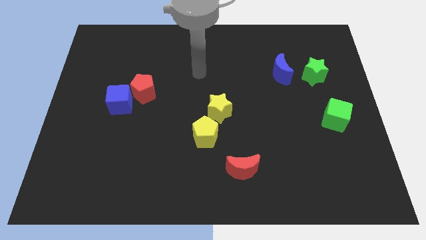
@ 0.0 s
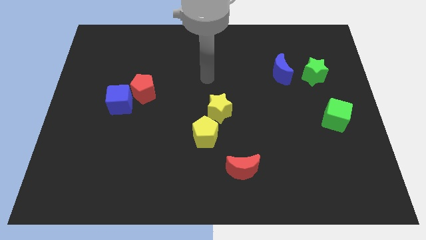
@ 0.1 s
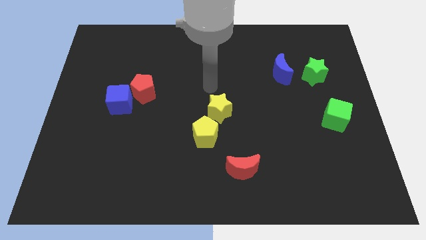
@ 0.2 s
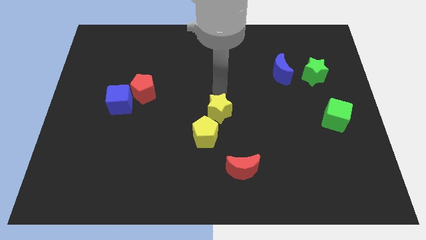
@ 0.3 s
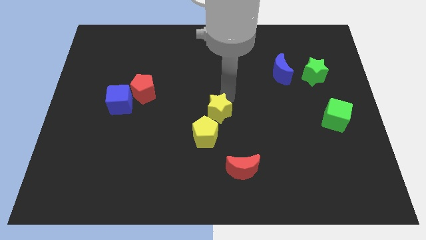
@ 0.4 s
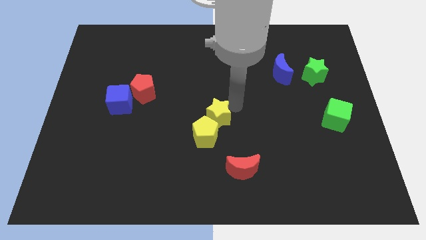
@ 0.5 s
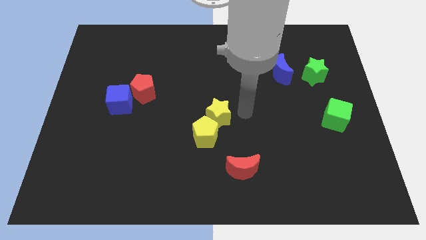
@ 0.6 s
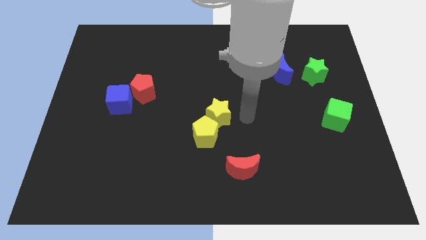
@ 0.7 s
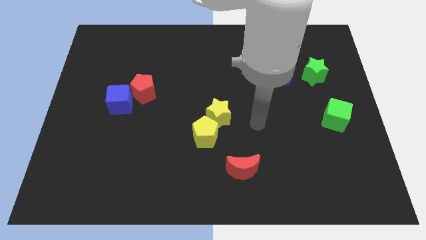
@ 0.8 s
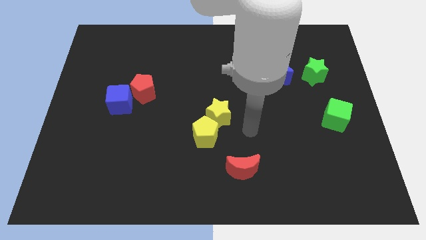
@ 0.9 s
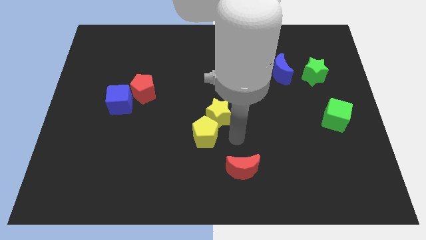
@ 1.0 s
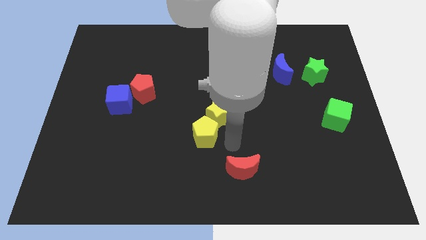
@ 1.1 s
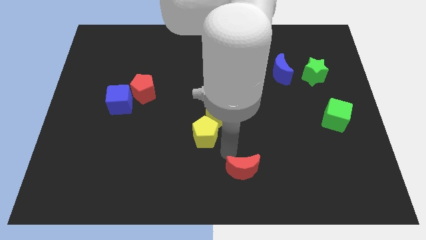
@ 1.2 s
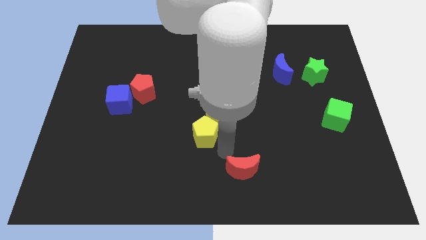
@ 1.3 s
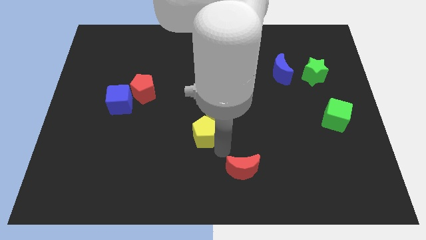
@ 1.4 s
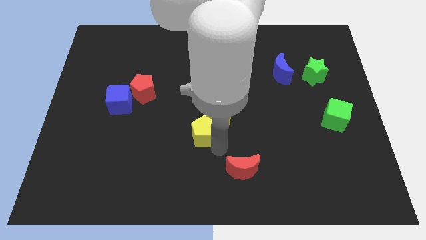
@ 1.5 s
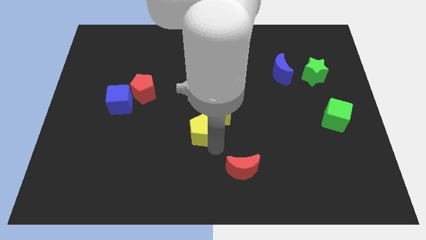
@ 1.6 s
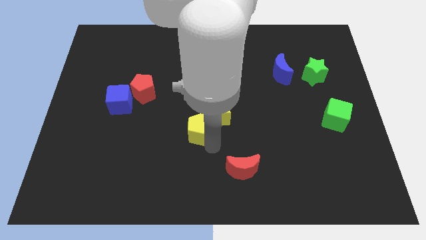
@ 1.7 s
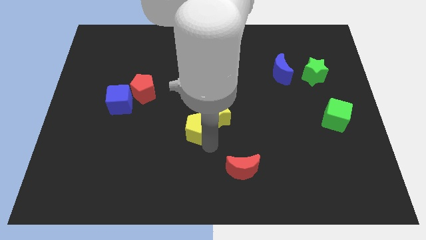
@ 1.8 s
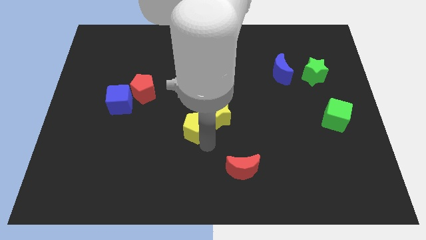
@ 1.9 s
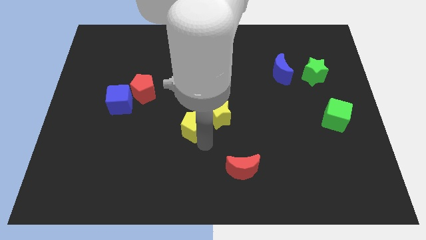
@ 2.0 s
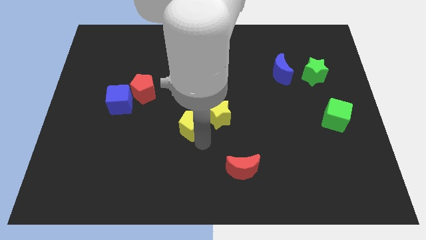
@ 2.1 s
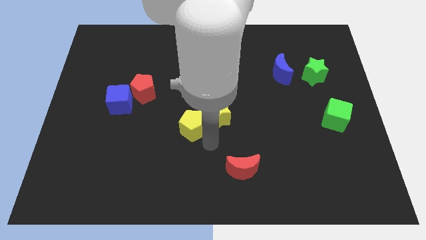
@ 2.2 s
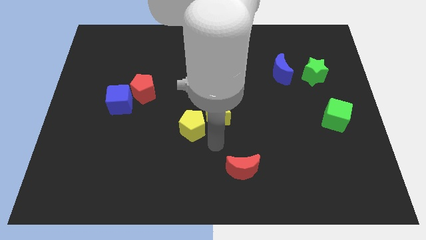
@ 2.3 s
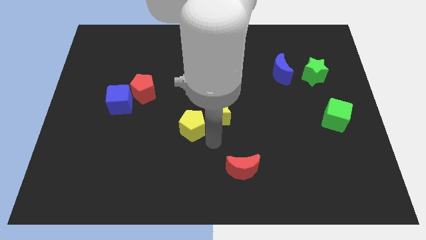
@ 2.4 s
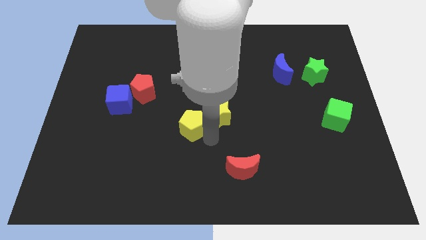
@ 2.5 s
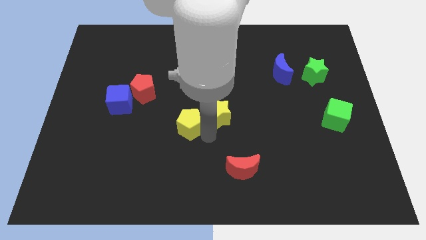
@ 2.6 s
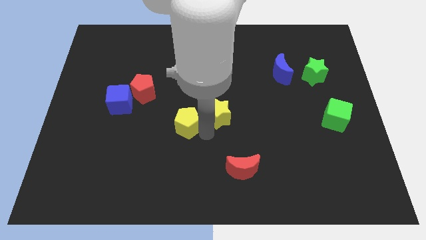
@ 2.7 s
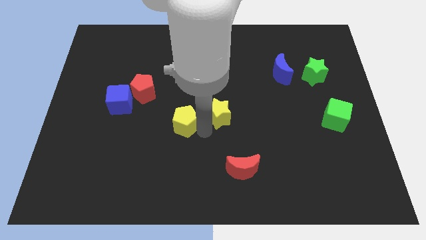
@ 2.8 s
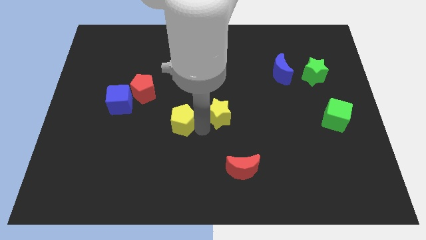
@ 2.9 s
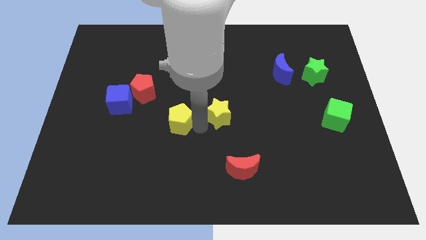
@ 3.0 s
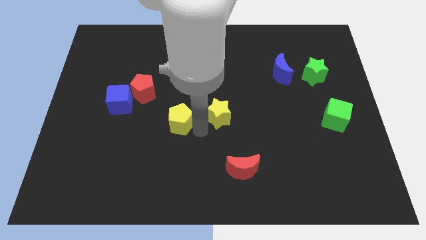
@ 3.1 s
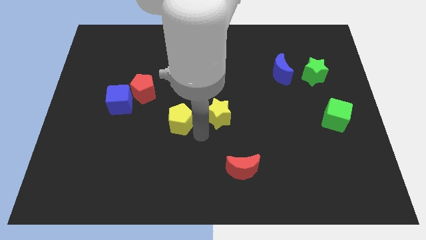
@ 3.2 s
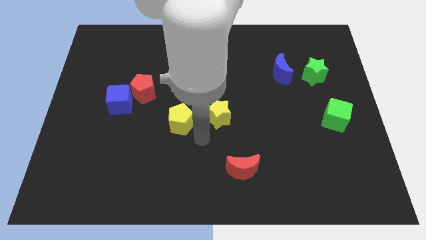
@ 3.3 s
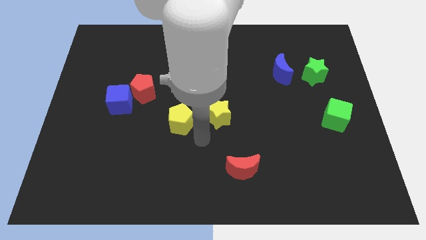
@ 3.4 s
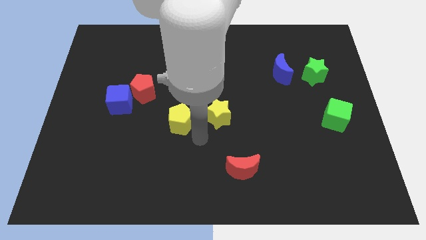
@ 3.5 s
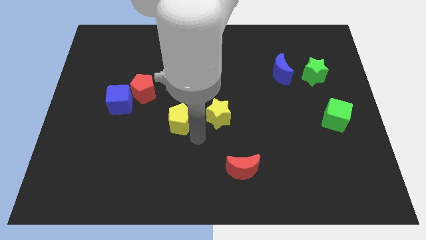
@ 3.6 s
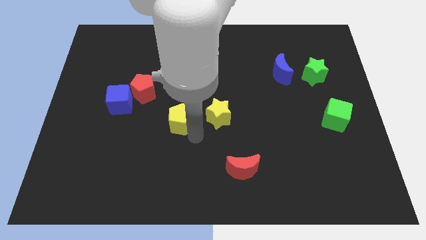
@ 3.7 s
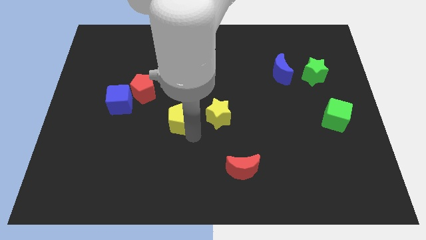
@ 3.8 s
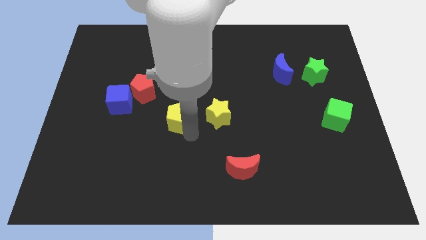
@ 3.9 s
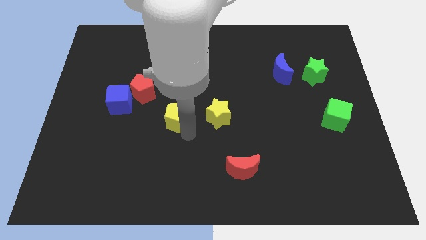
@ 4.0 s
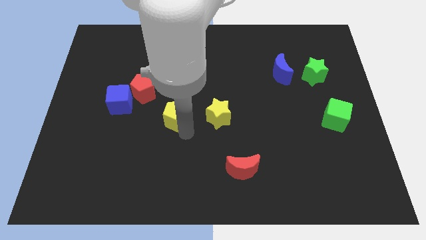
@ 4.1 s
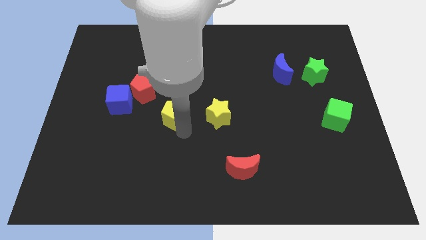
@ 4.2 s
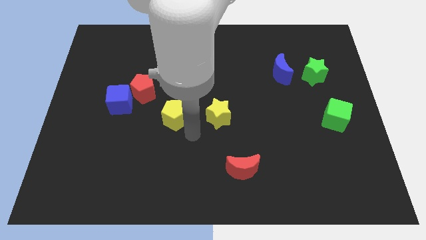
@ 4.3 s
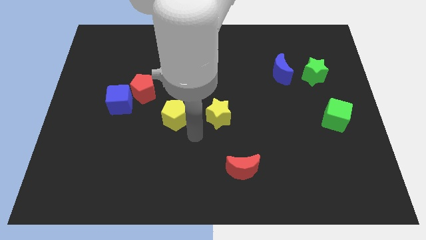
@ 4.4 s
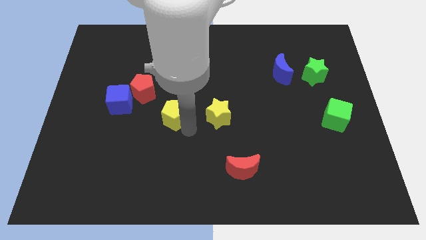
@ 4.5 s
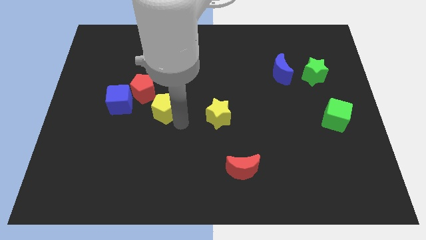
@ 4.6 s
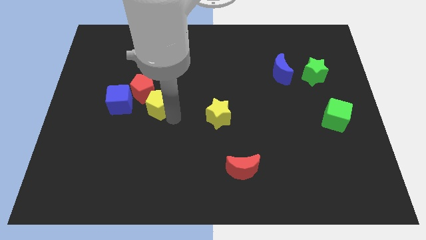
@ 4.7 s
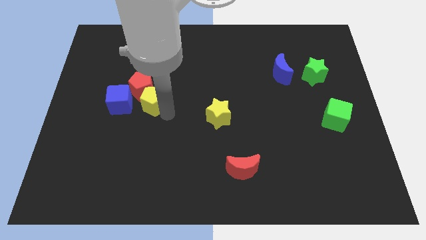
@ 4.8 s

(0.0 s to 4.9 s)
push the yellow pentagon close to the red pentagon

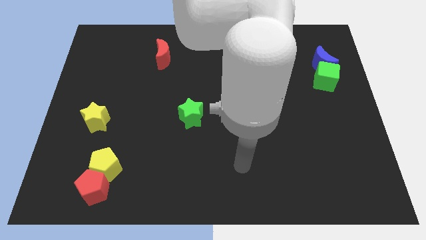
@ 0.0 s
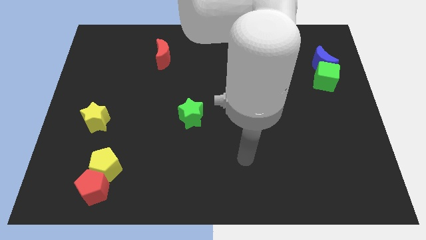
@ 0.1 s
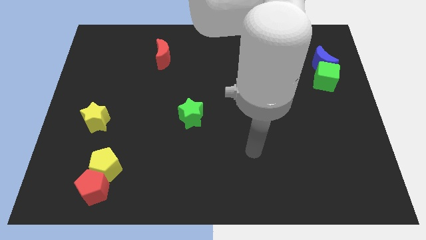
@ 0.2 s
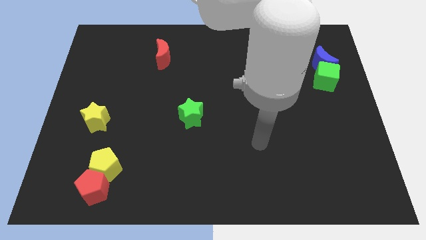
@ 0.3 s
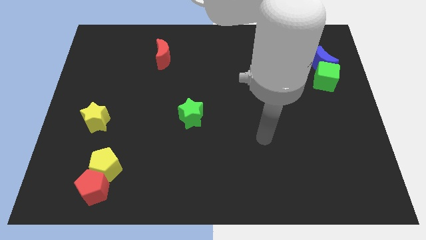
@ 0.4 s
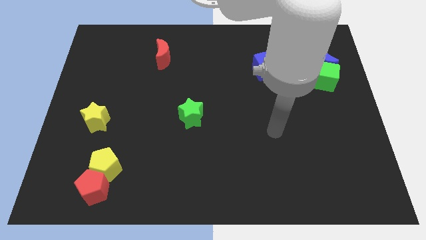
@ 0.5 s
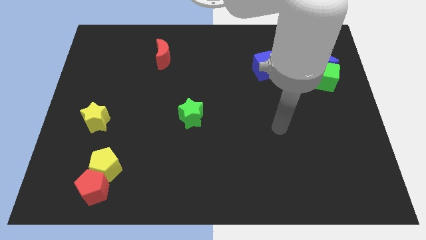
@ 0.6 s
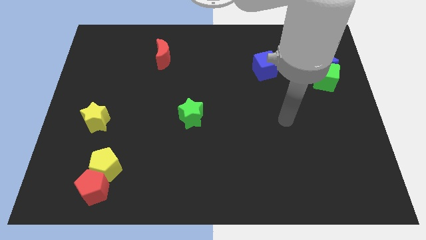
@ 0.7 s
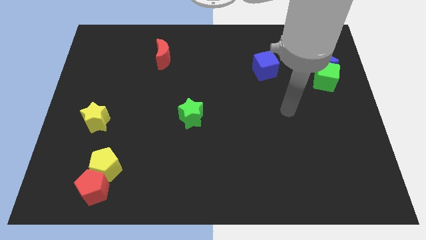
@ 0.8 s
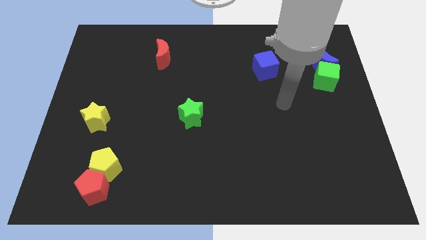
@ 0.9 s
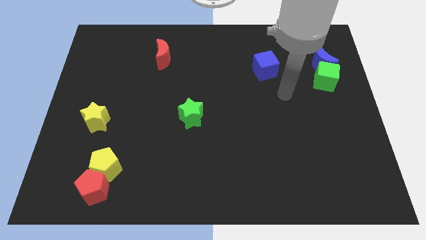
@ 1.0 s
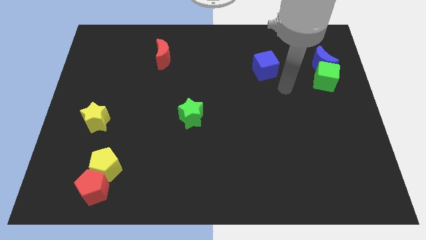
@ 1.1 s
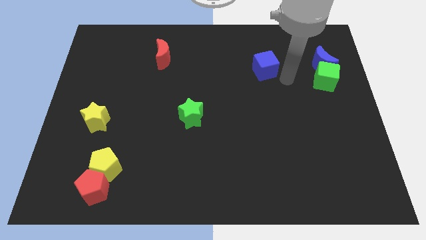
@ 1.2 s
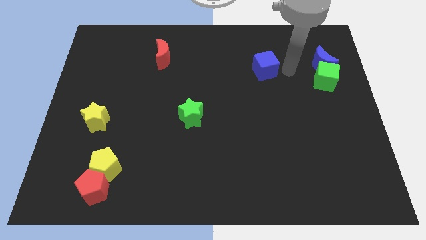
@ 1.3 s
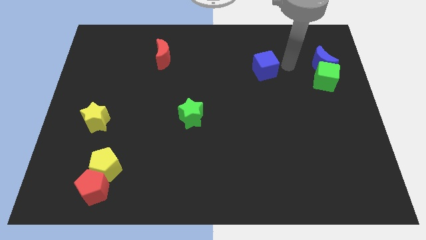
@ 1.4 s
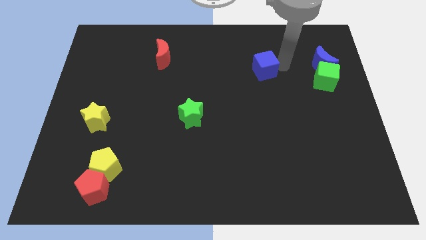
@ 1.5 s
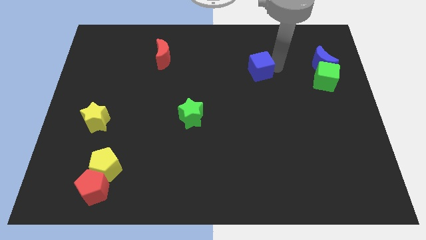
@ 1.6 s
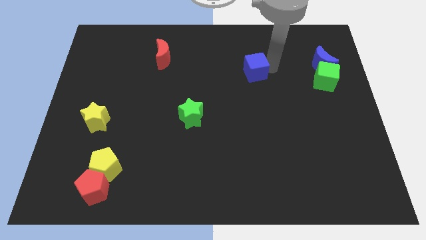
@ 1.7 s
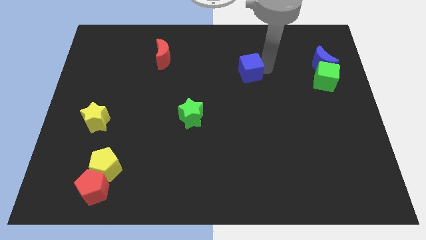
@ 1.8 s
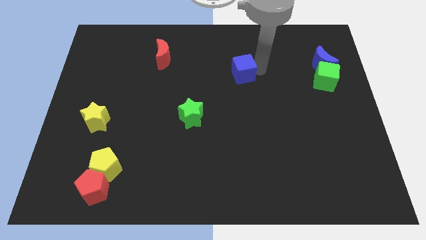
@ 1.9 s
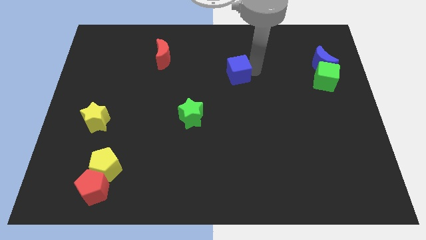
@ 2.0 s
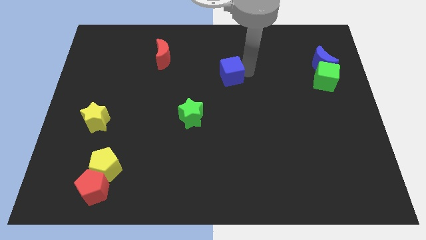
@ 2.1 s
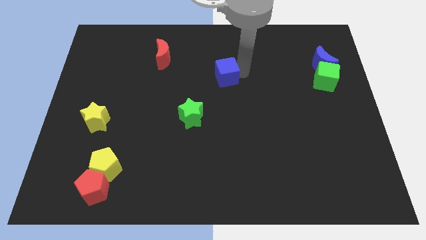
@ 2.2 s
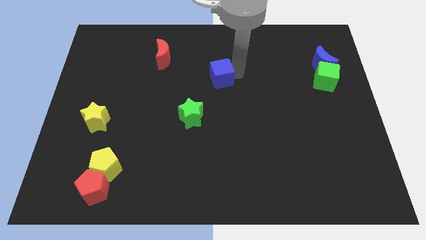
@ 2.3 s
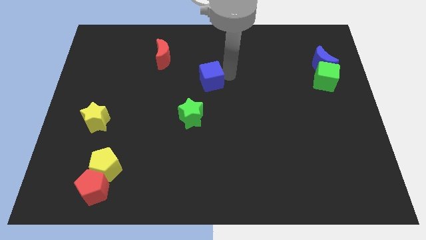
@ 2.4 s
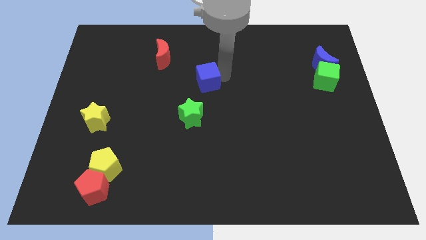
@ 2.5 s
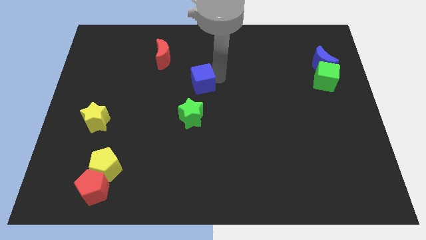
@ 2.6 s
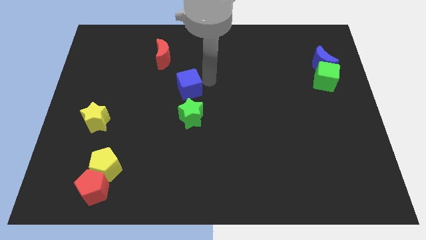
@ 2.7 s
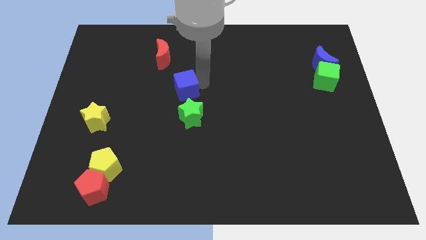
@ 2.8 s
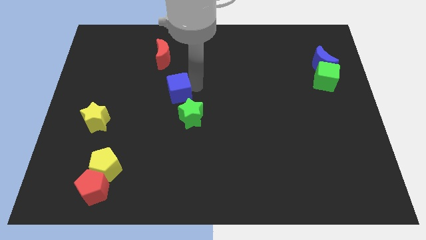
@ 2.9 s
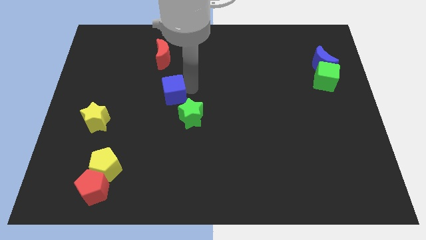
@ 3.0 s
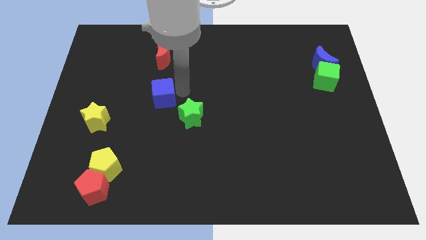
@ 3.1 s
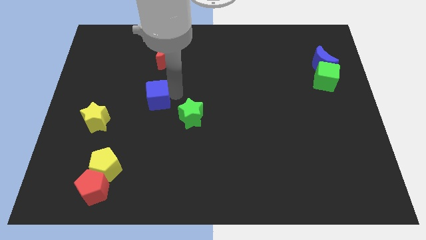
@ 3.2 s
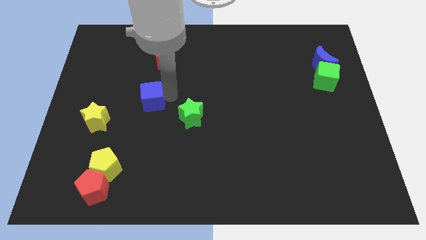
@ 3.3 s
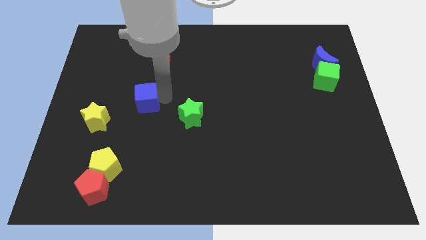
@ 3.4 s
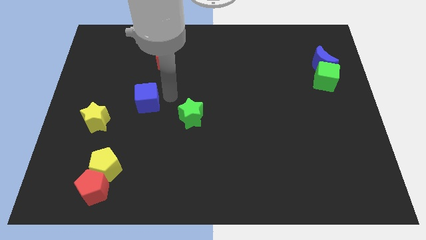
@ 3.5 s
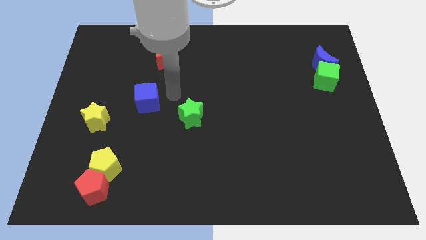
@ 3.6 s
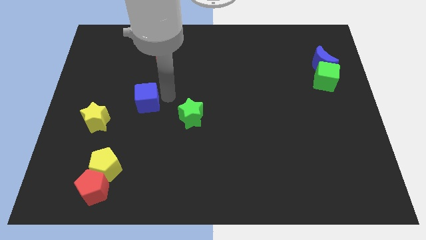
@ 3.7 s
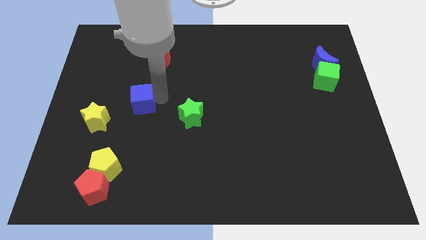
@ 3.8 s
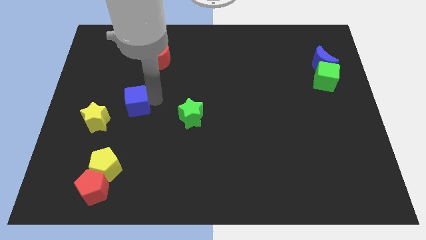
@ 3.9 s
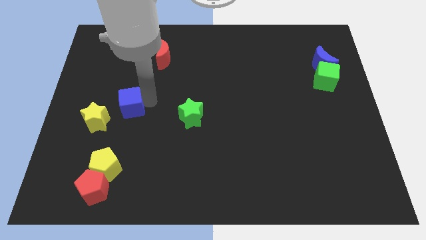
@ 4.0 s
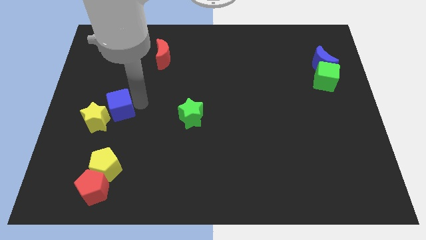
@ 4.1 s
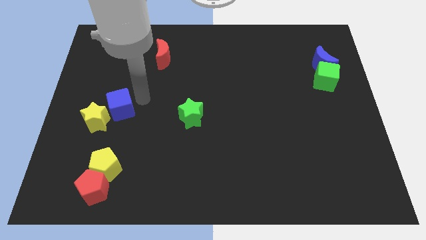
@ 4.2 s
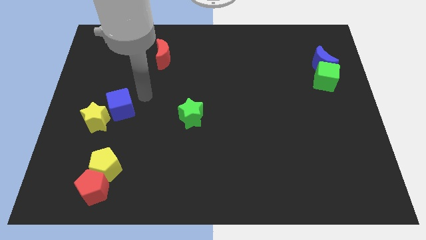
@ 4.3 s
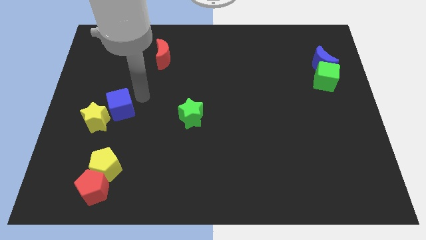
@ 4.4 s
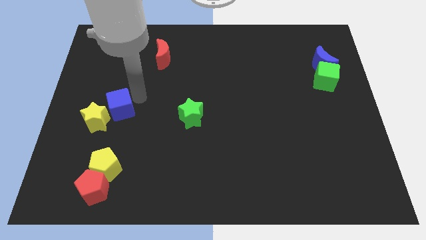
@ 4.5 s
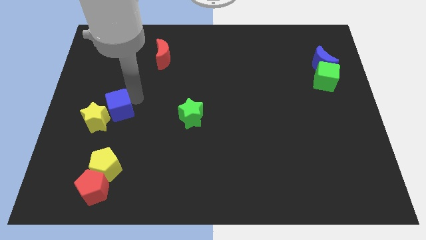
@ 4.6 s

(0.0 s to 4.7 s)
put the blue cube to the yellow star
